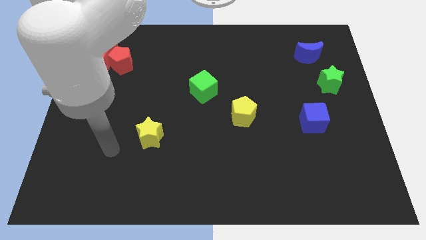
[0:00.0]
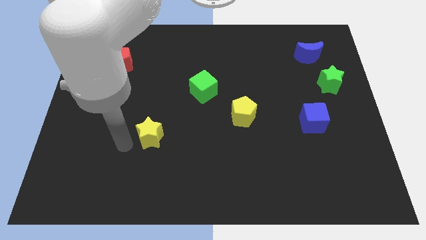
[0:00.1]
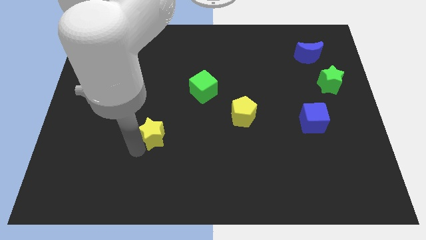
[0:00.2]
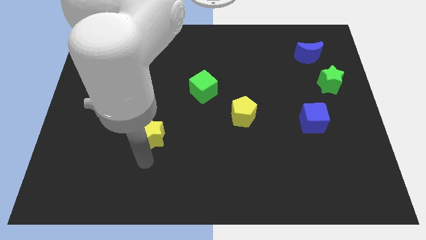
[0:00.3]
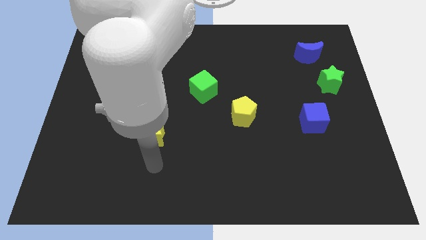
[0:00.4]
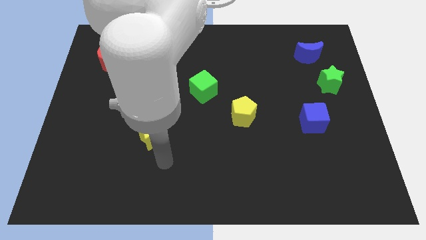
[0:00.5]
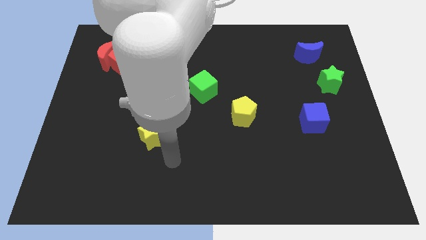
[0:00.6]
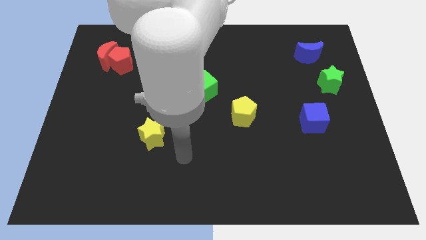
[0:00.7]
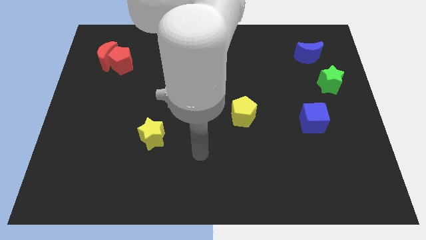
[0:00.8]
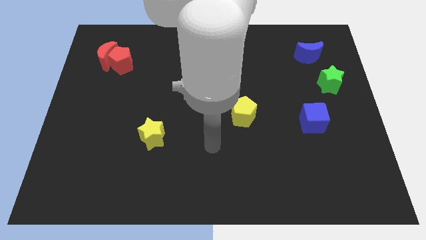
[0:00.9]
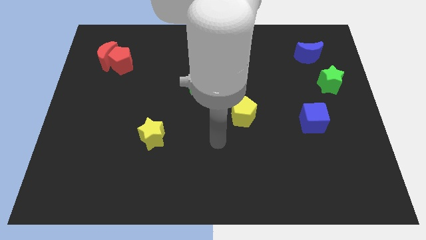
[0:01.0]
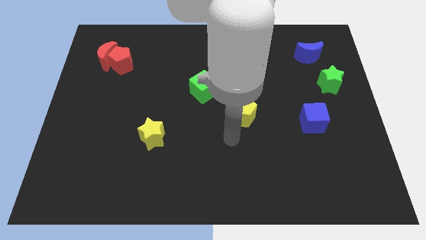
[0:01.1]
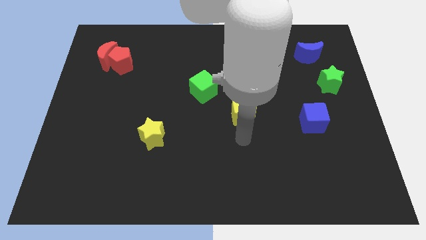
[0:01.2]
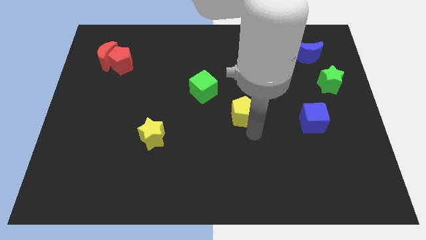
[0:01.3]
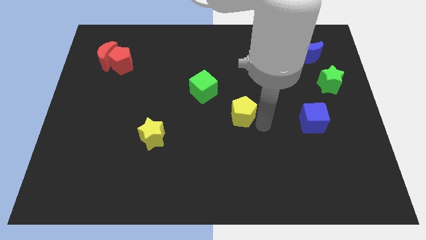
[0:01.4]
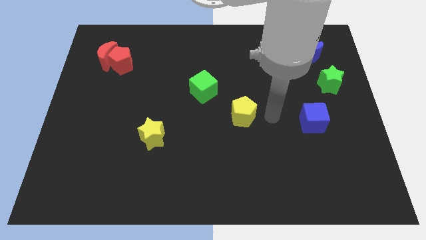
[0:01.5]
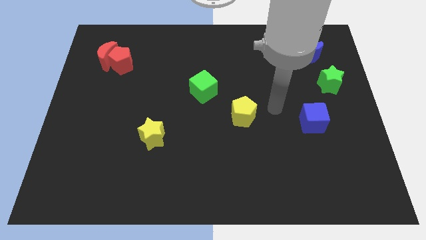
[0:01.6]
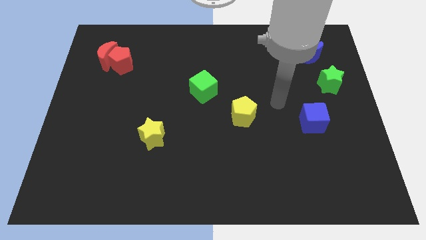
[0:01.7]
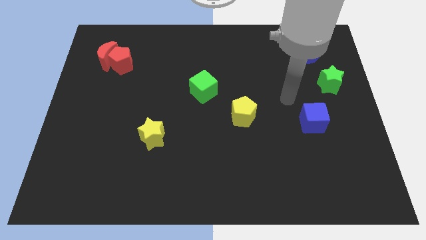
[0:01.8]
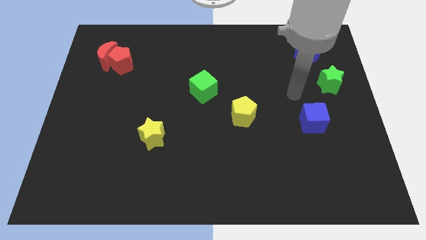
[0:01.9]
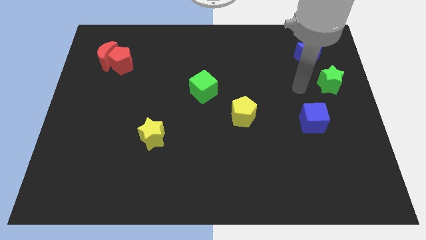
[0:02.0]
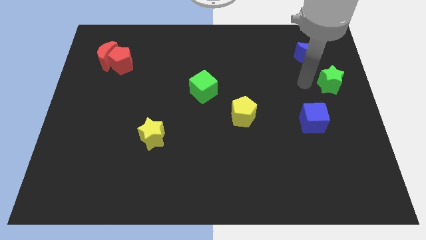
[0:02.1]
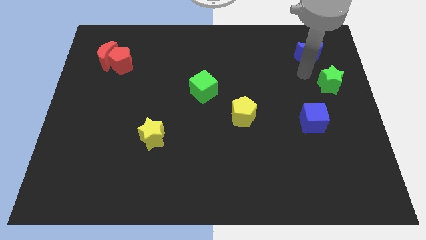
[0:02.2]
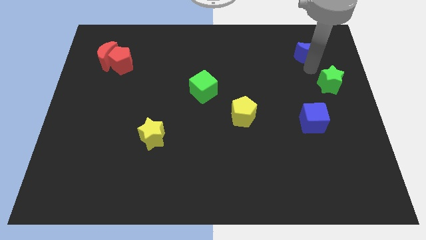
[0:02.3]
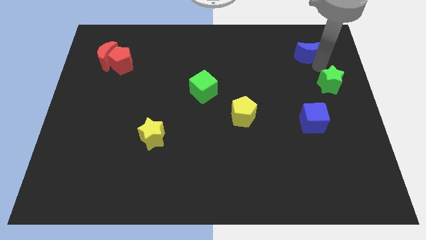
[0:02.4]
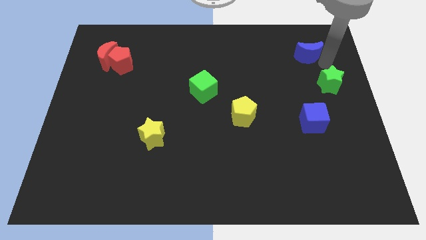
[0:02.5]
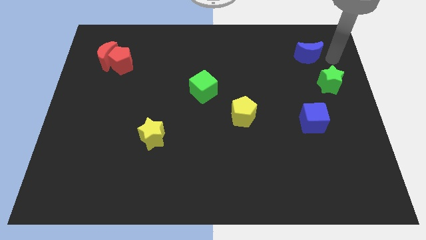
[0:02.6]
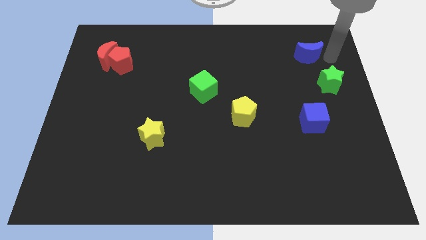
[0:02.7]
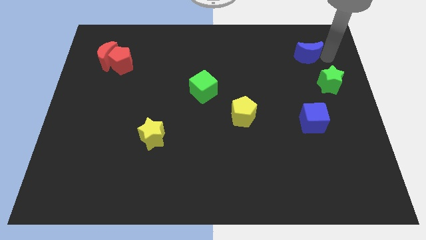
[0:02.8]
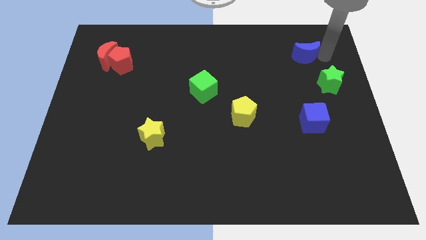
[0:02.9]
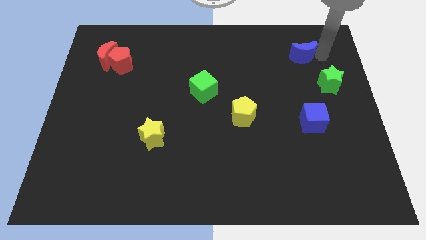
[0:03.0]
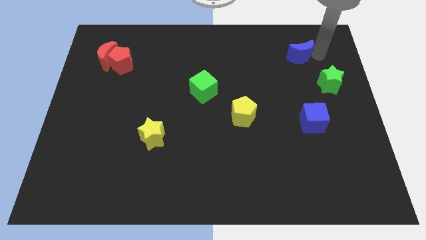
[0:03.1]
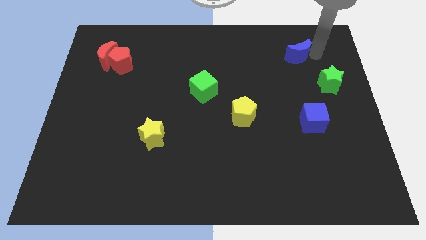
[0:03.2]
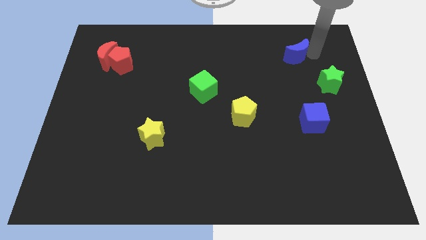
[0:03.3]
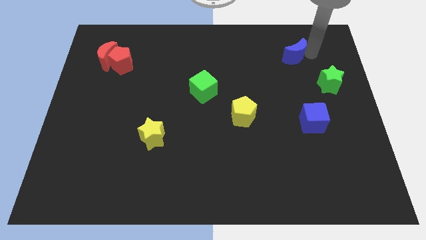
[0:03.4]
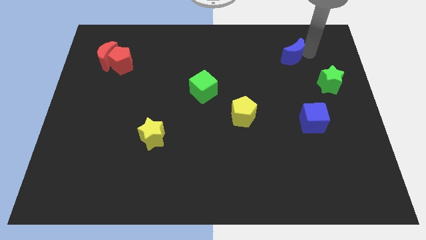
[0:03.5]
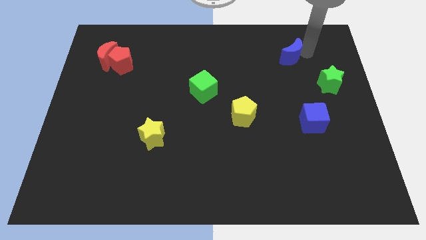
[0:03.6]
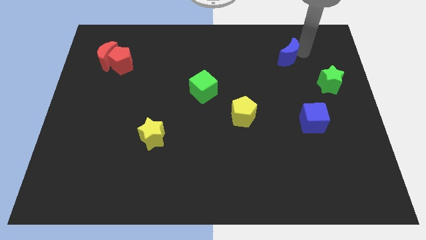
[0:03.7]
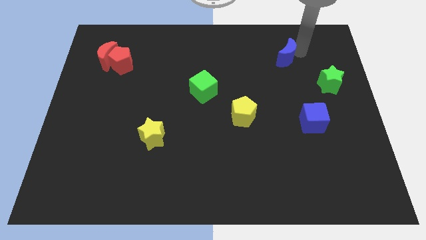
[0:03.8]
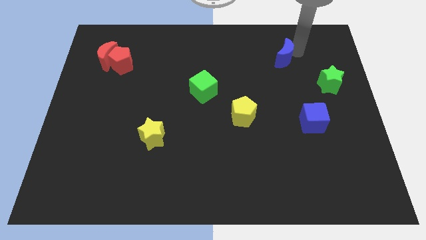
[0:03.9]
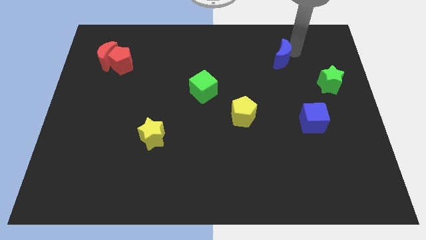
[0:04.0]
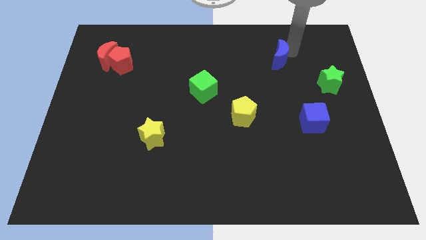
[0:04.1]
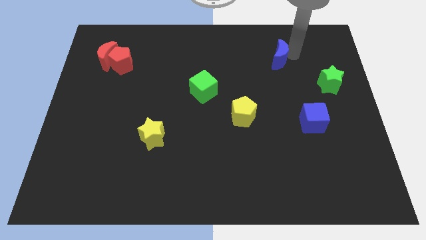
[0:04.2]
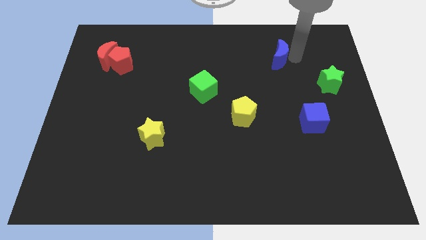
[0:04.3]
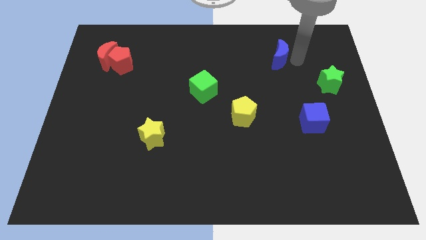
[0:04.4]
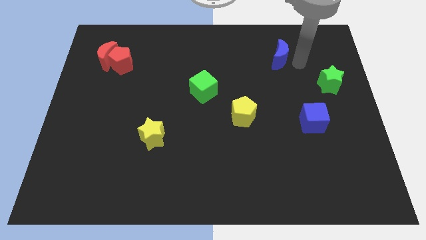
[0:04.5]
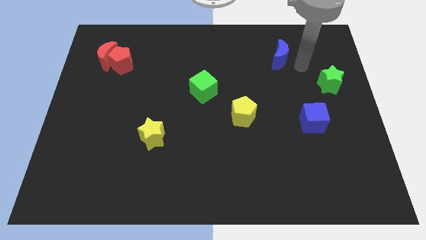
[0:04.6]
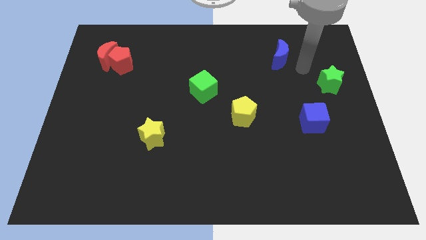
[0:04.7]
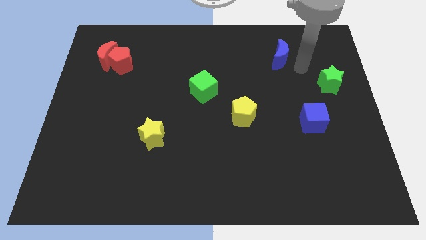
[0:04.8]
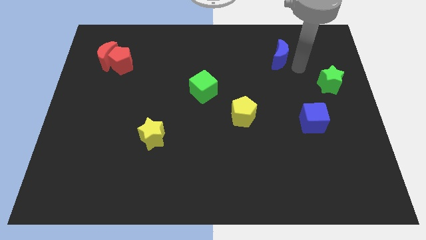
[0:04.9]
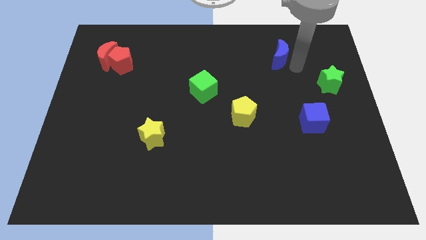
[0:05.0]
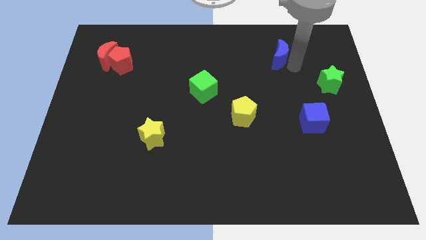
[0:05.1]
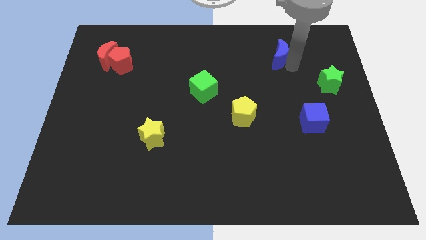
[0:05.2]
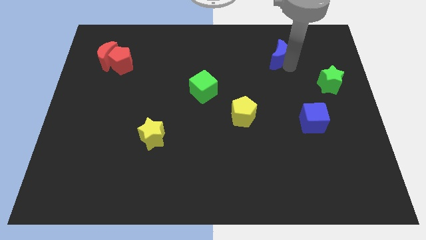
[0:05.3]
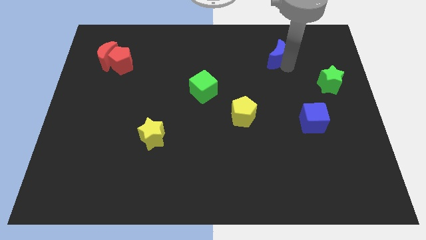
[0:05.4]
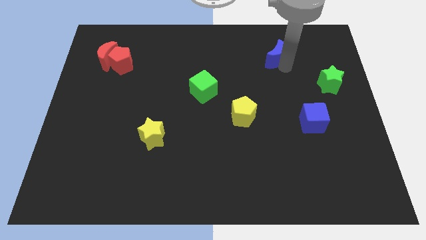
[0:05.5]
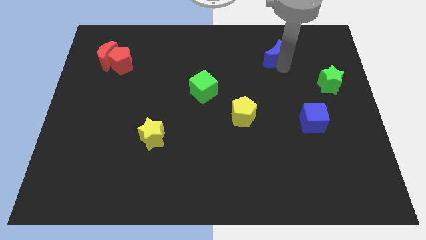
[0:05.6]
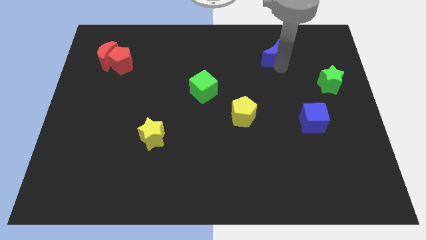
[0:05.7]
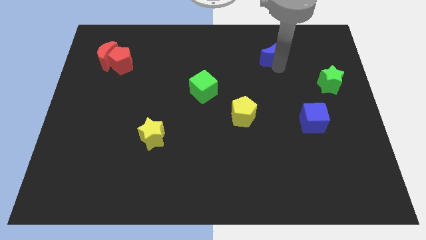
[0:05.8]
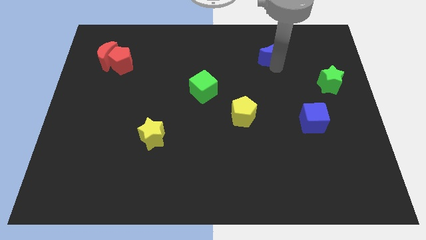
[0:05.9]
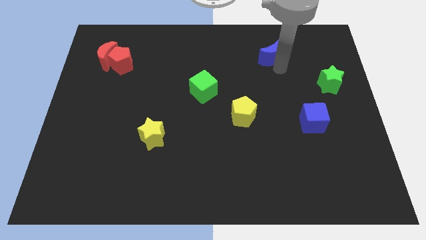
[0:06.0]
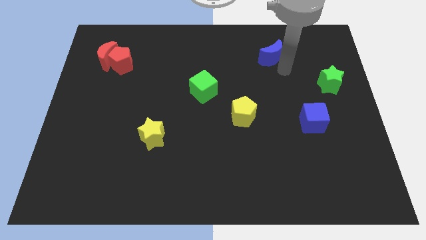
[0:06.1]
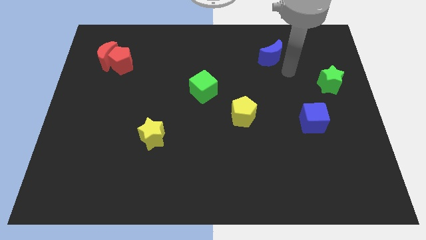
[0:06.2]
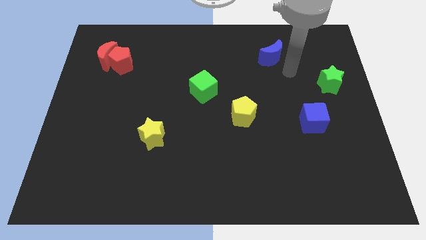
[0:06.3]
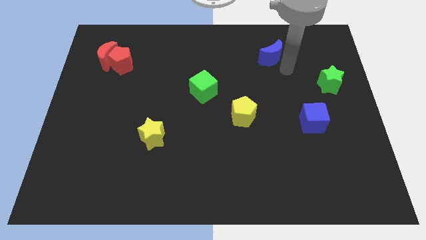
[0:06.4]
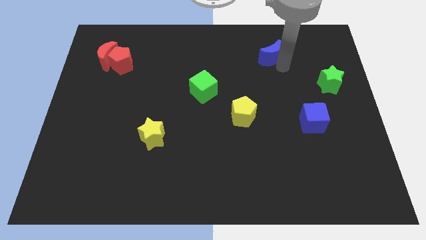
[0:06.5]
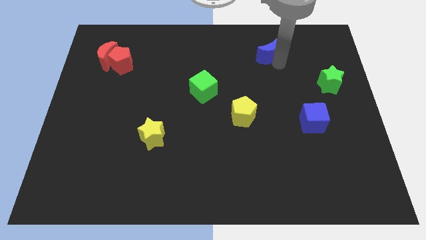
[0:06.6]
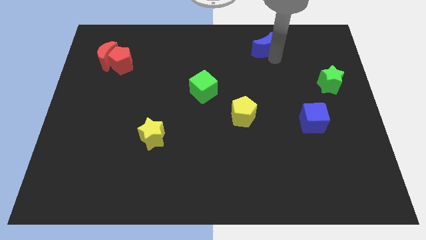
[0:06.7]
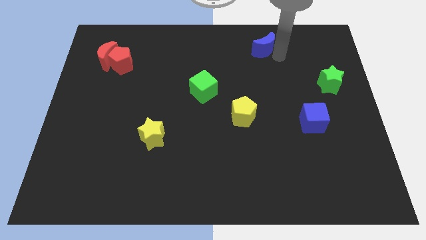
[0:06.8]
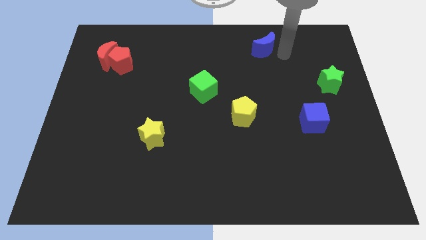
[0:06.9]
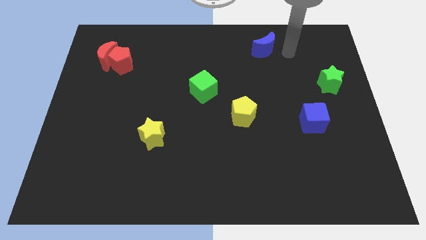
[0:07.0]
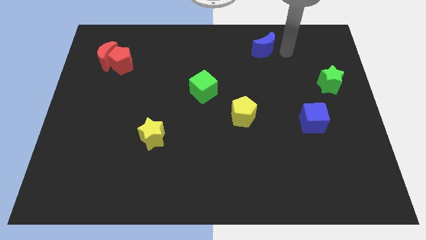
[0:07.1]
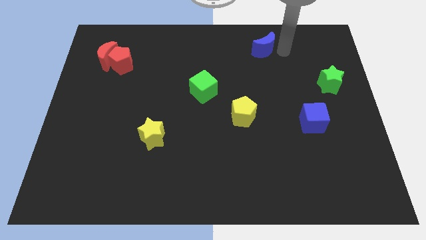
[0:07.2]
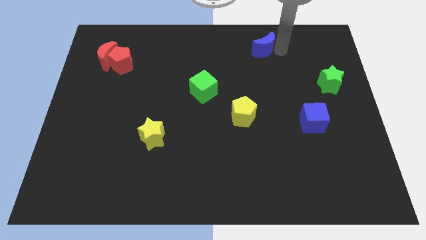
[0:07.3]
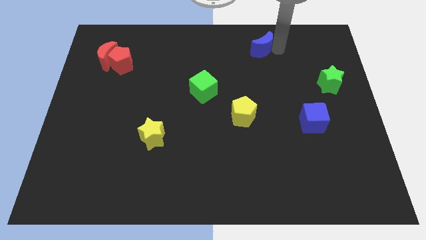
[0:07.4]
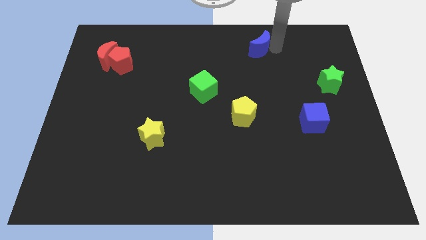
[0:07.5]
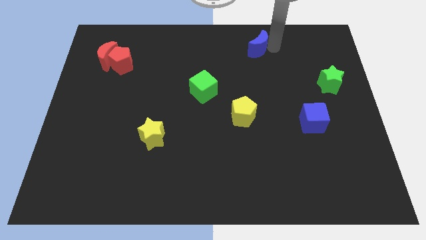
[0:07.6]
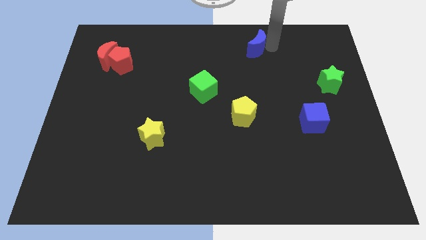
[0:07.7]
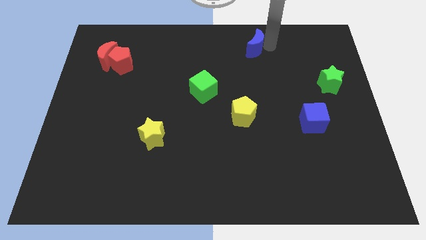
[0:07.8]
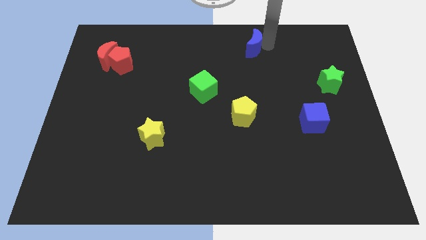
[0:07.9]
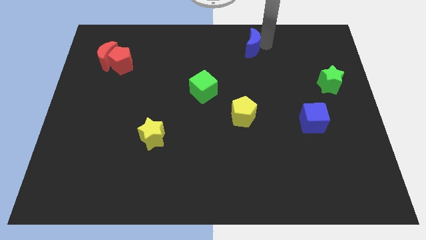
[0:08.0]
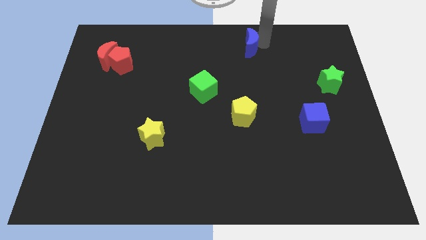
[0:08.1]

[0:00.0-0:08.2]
put the blue moon to the top side
